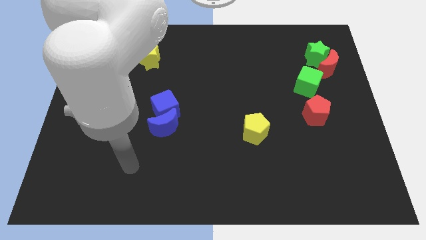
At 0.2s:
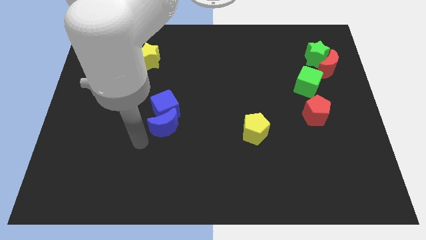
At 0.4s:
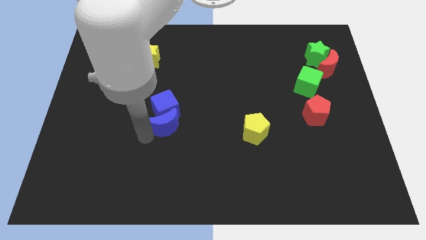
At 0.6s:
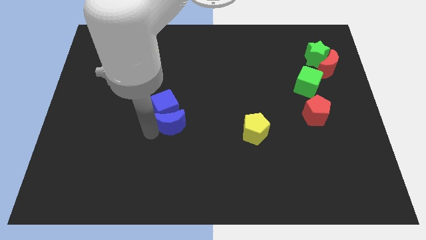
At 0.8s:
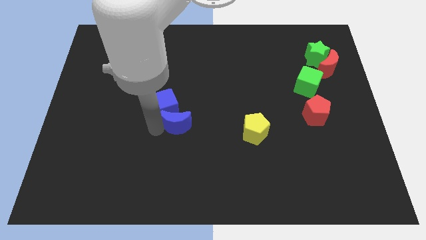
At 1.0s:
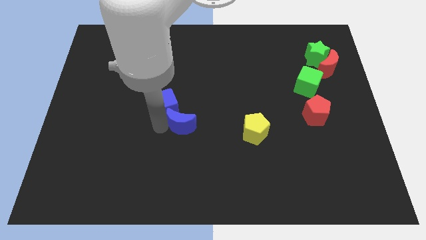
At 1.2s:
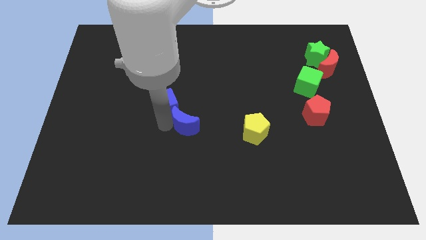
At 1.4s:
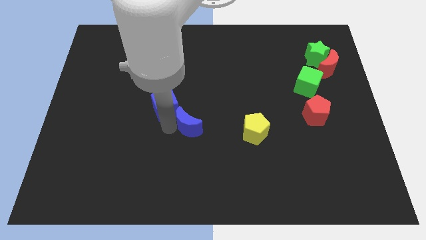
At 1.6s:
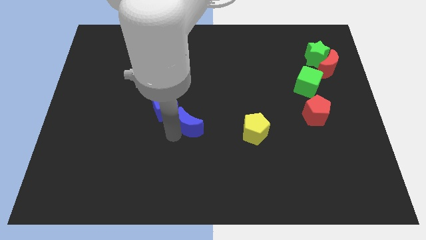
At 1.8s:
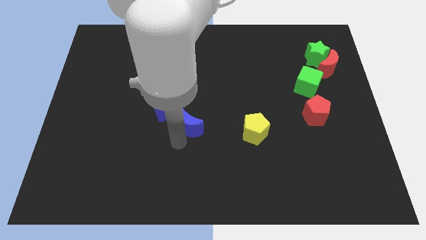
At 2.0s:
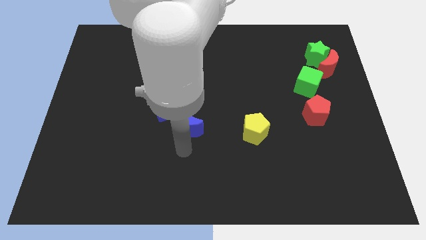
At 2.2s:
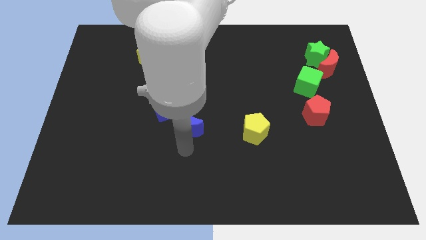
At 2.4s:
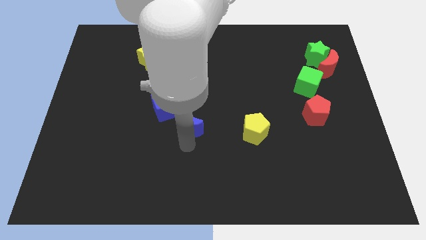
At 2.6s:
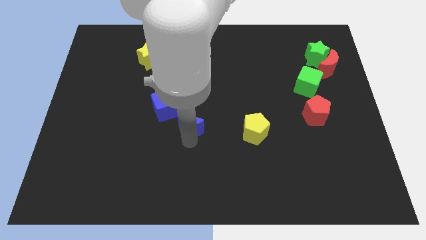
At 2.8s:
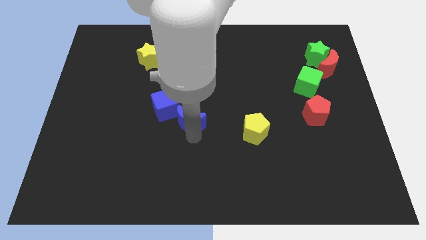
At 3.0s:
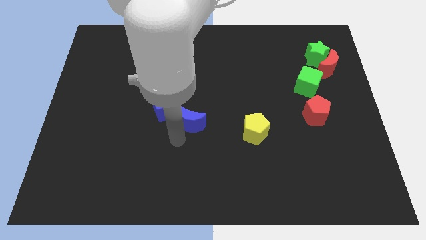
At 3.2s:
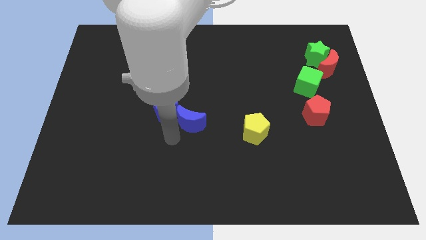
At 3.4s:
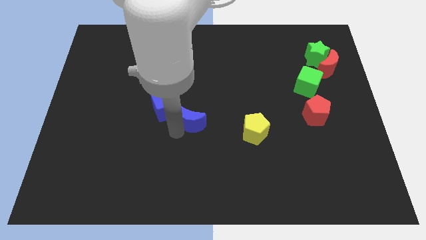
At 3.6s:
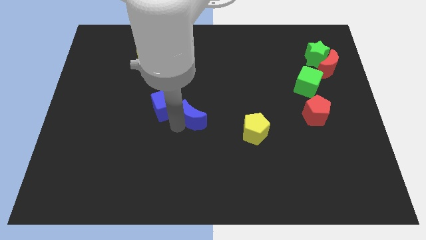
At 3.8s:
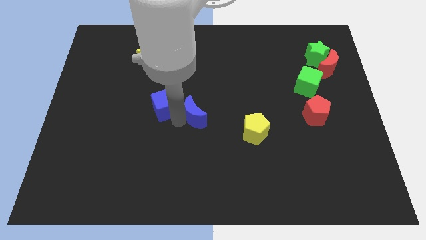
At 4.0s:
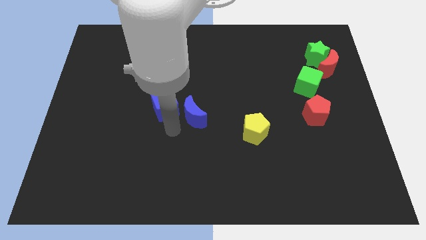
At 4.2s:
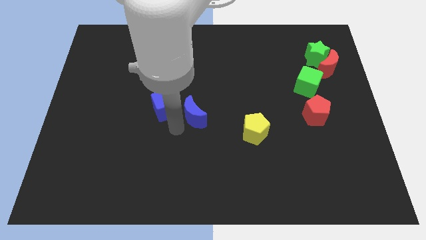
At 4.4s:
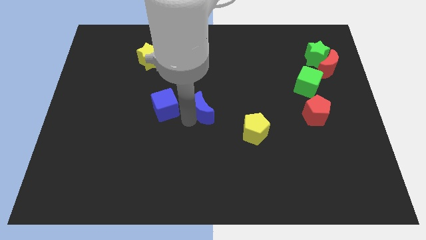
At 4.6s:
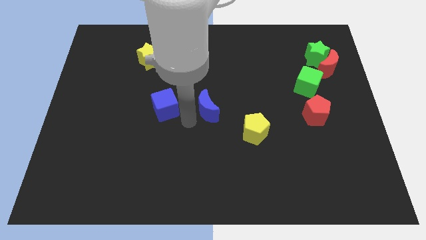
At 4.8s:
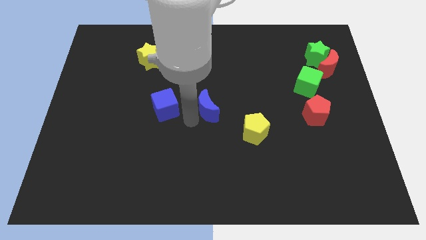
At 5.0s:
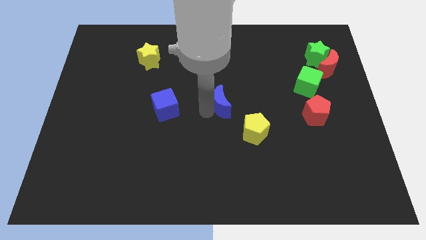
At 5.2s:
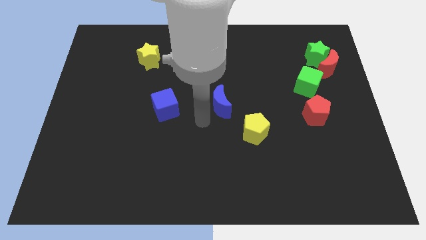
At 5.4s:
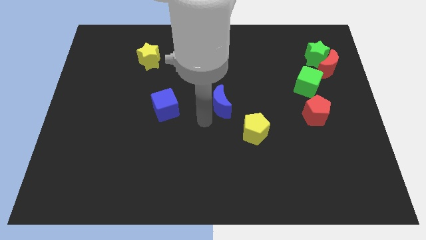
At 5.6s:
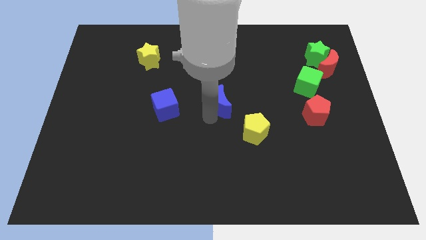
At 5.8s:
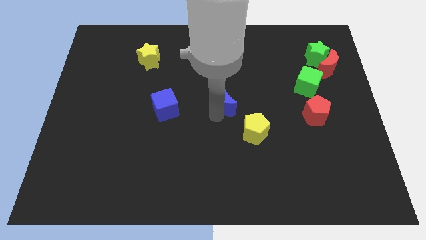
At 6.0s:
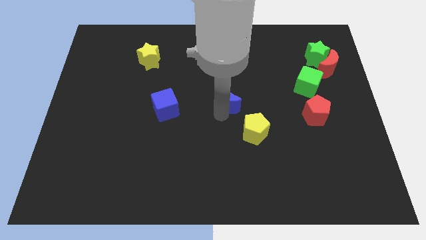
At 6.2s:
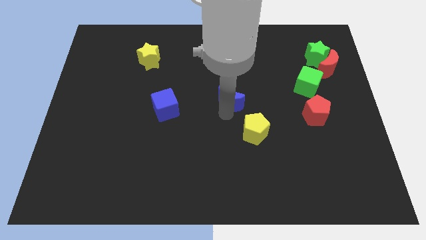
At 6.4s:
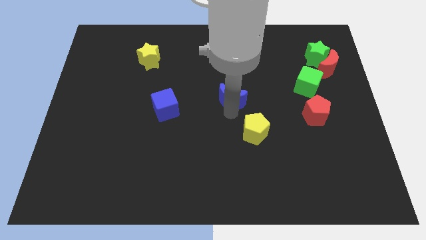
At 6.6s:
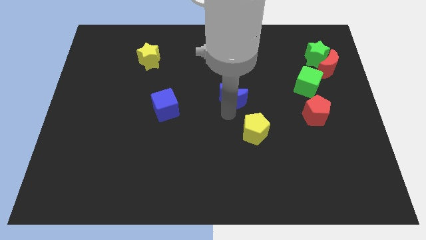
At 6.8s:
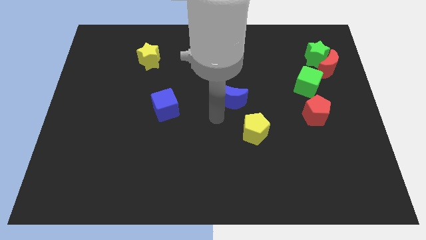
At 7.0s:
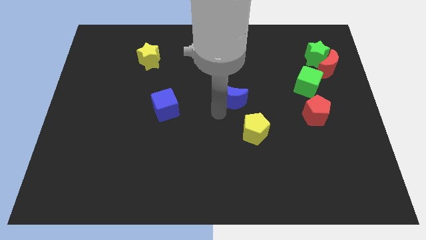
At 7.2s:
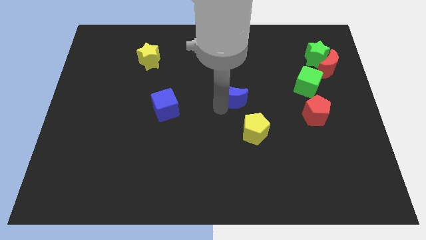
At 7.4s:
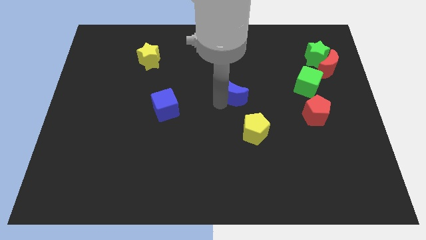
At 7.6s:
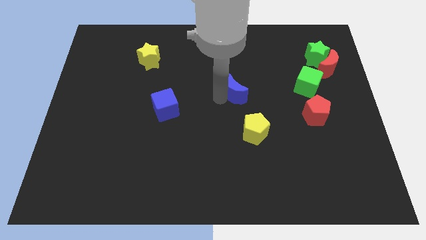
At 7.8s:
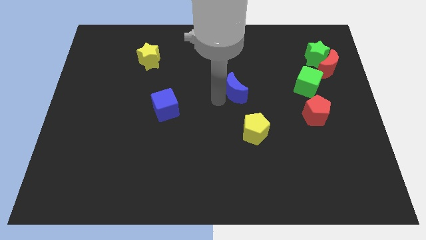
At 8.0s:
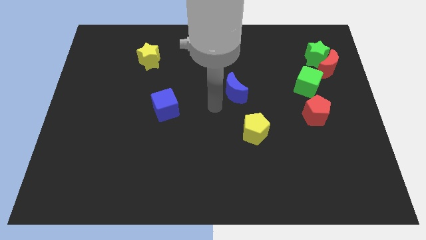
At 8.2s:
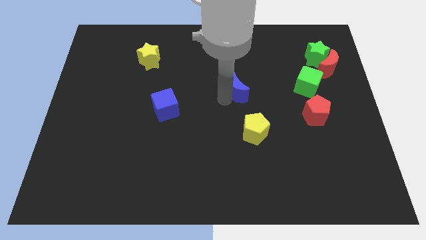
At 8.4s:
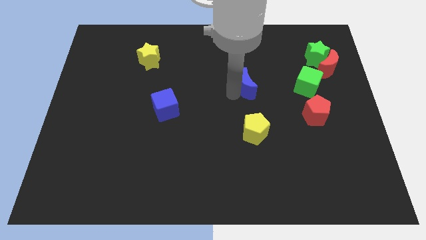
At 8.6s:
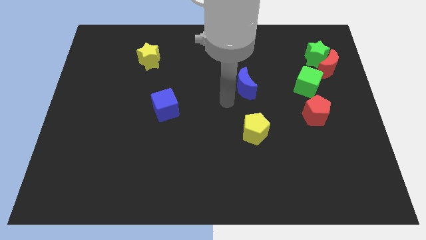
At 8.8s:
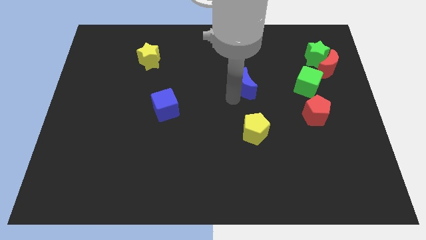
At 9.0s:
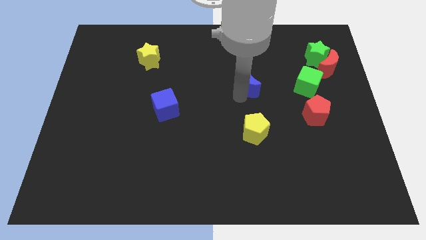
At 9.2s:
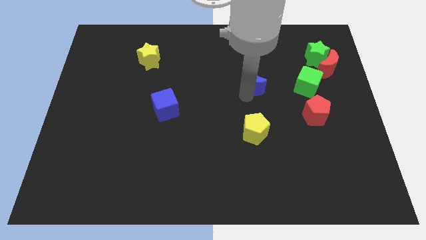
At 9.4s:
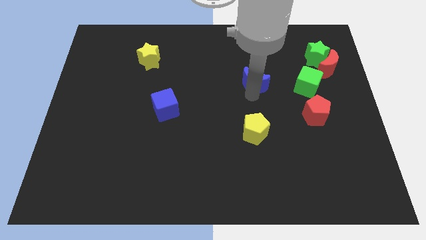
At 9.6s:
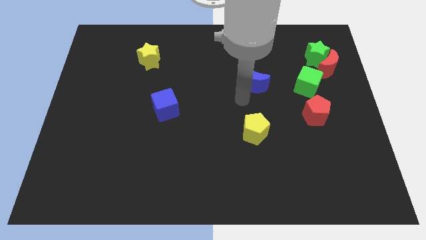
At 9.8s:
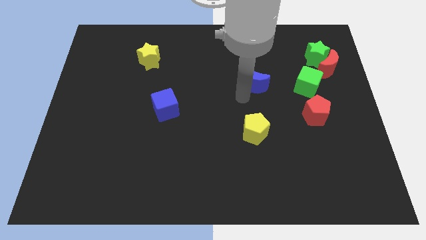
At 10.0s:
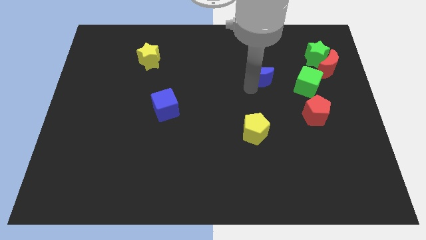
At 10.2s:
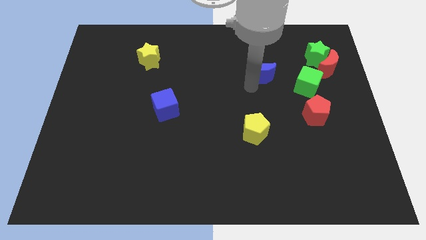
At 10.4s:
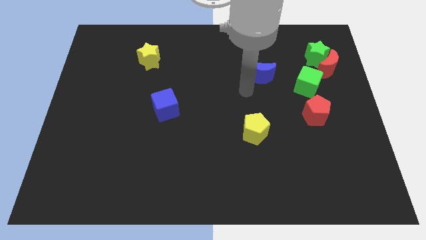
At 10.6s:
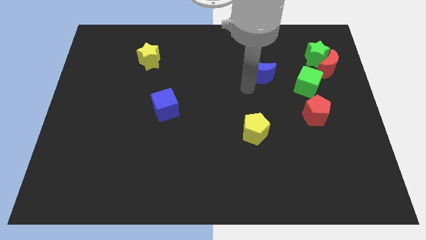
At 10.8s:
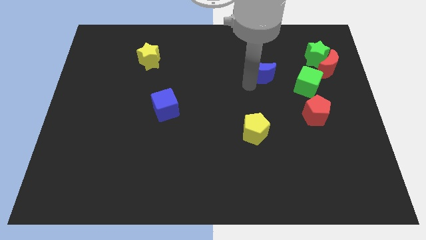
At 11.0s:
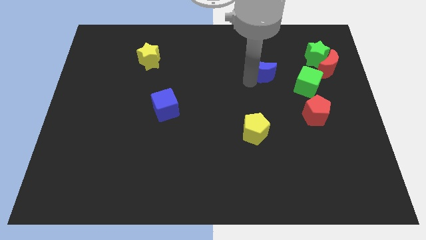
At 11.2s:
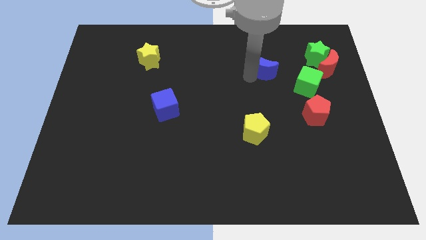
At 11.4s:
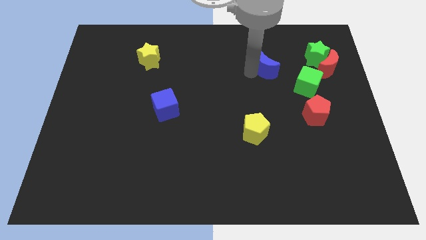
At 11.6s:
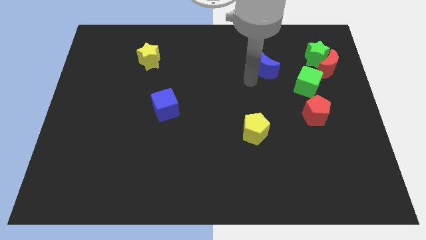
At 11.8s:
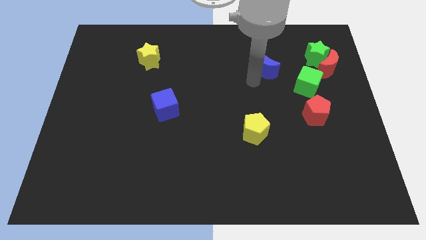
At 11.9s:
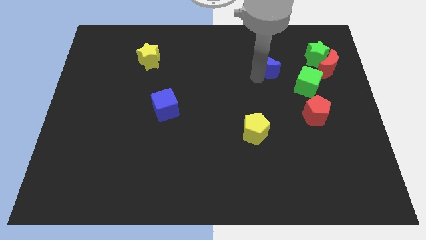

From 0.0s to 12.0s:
move the blue moon just left of the green star

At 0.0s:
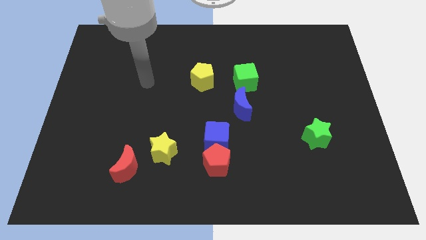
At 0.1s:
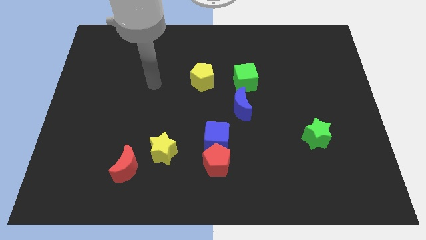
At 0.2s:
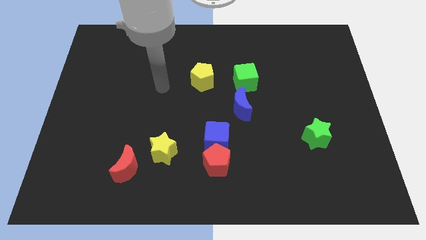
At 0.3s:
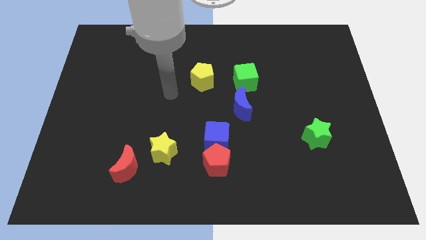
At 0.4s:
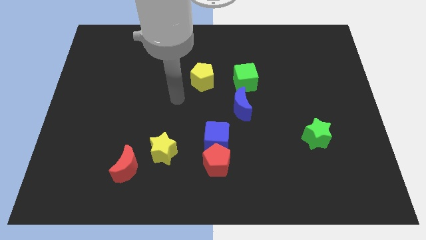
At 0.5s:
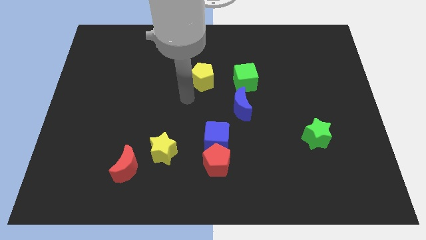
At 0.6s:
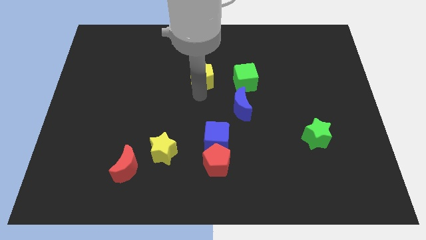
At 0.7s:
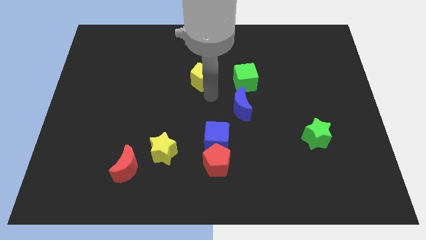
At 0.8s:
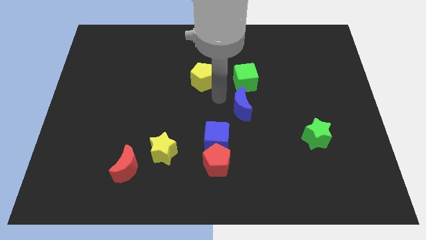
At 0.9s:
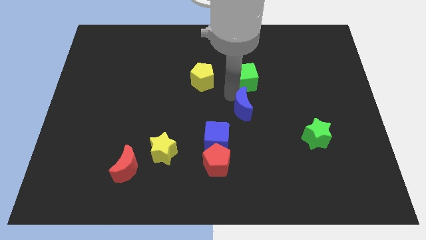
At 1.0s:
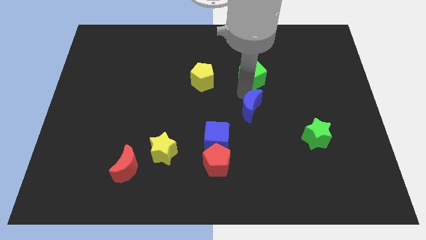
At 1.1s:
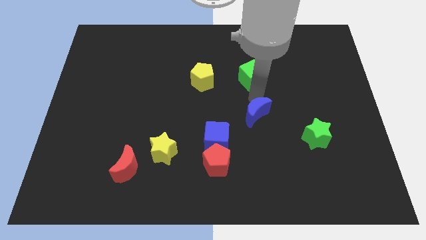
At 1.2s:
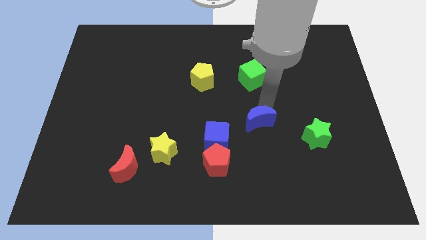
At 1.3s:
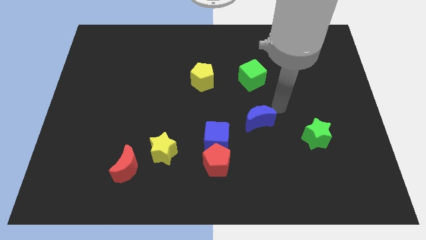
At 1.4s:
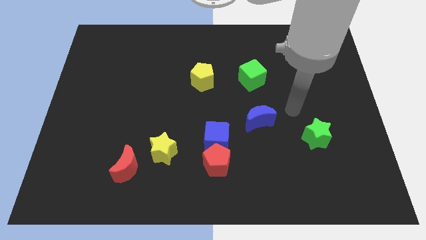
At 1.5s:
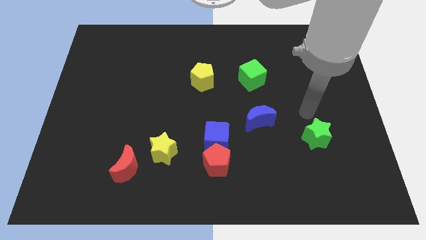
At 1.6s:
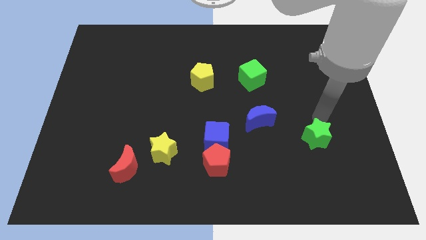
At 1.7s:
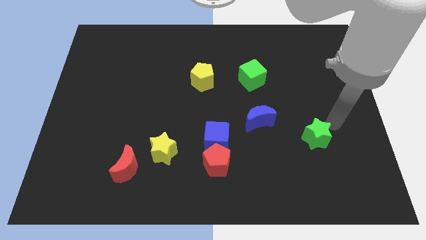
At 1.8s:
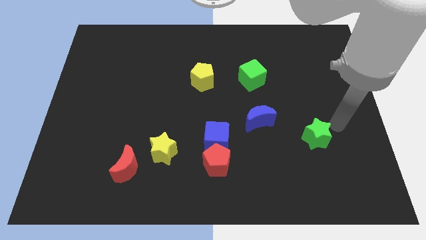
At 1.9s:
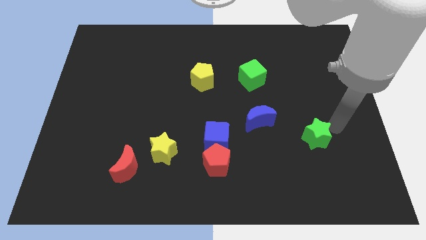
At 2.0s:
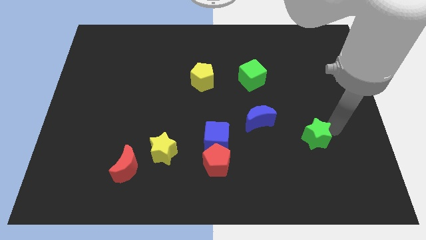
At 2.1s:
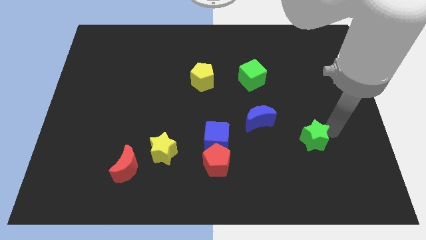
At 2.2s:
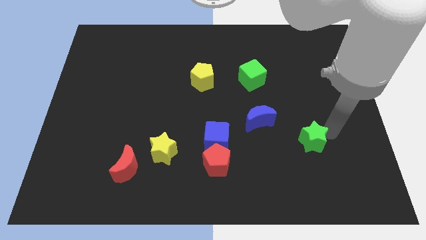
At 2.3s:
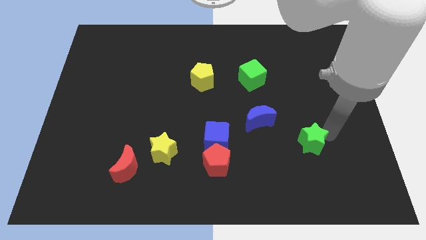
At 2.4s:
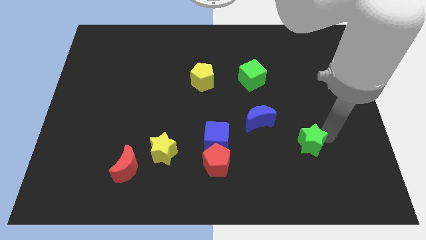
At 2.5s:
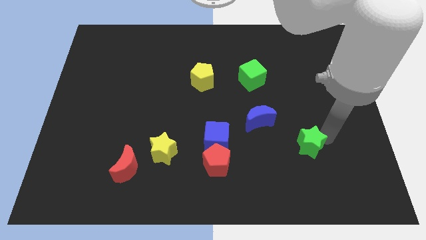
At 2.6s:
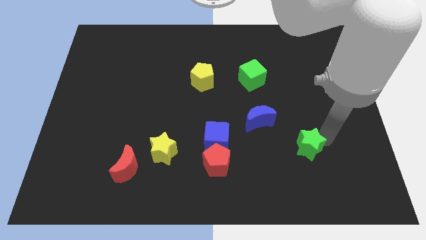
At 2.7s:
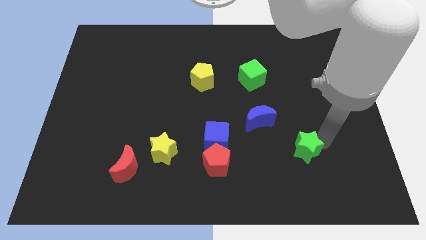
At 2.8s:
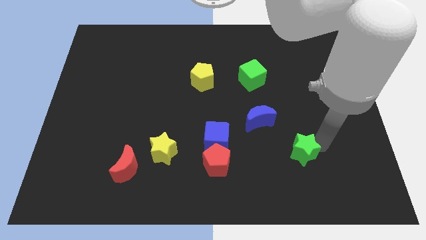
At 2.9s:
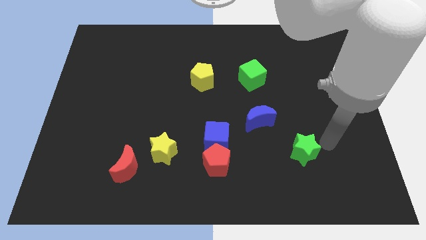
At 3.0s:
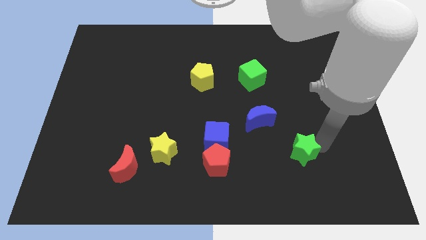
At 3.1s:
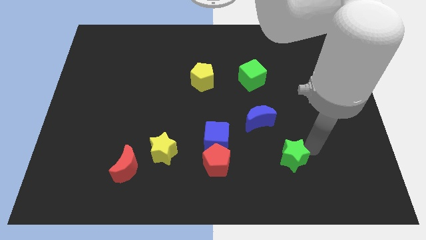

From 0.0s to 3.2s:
put the green star right of the red pentagon
